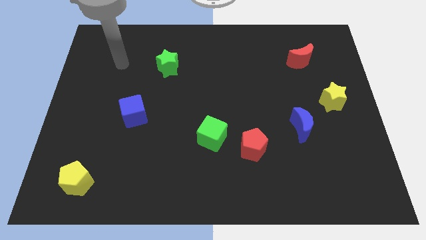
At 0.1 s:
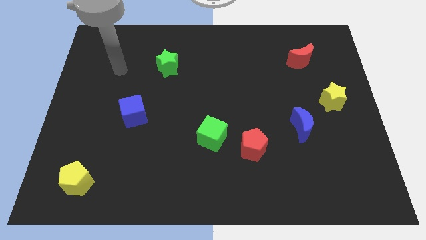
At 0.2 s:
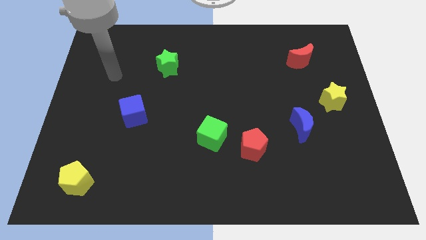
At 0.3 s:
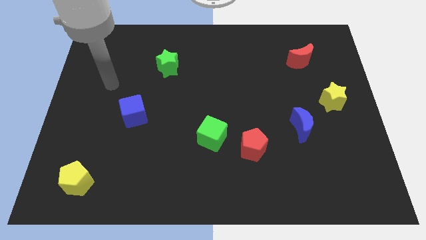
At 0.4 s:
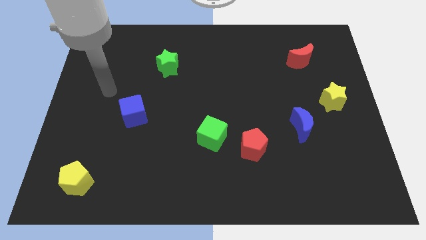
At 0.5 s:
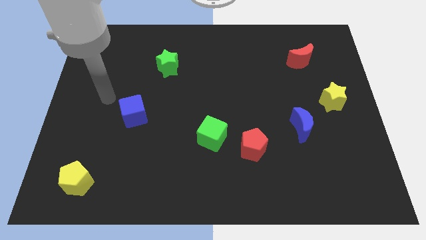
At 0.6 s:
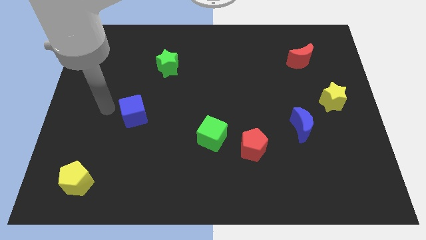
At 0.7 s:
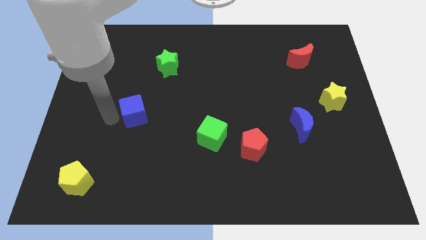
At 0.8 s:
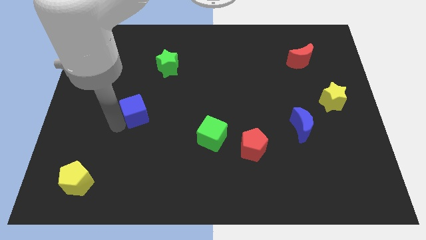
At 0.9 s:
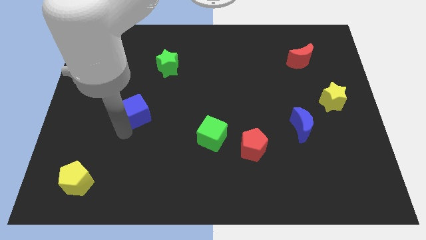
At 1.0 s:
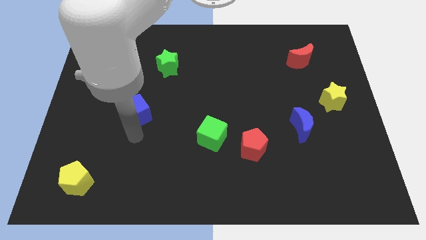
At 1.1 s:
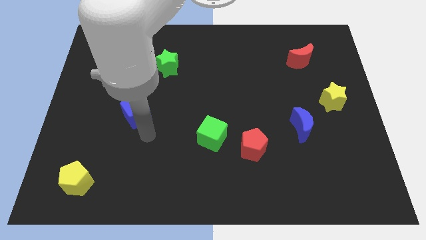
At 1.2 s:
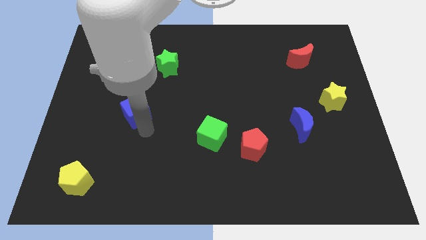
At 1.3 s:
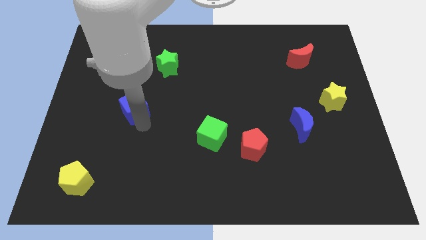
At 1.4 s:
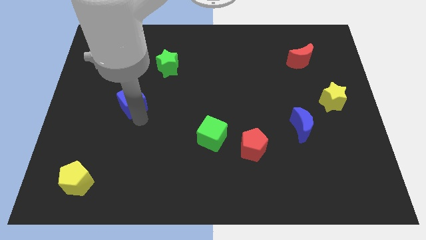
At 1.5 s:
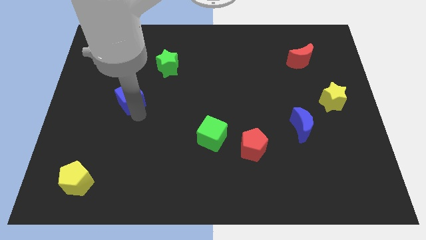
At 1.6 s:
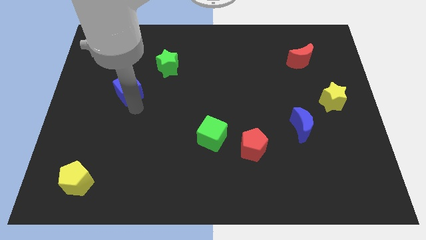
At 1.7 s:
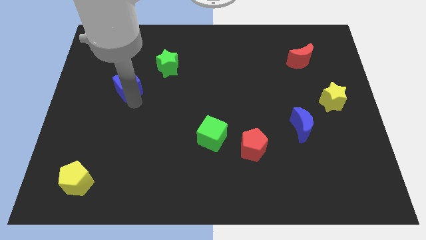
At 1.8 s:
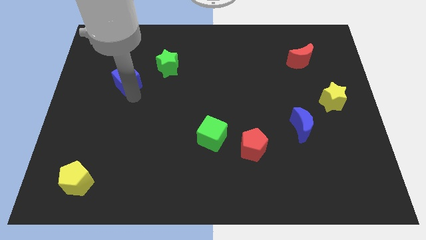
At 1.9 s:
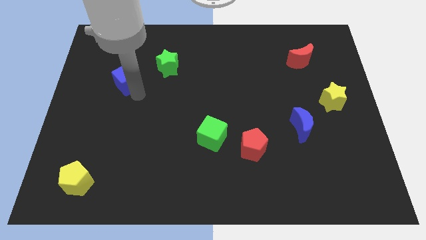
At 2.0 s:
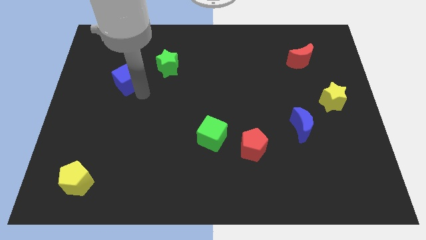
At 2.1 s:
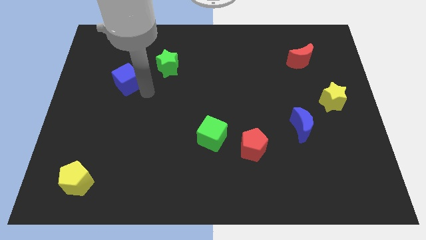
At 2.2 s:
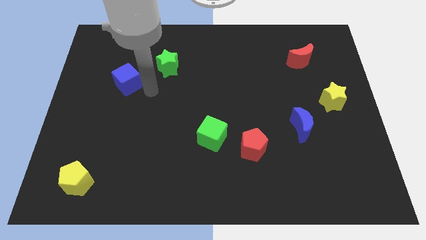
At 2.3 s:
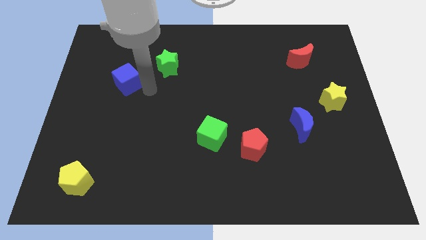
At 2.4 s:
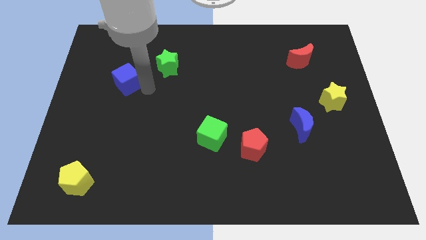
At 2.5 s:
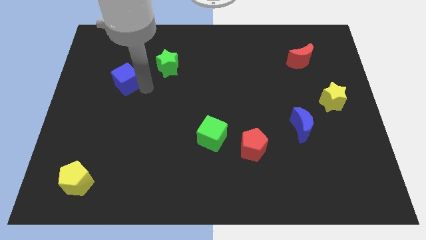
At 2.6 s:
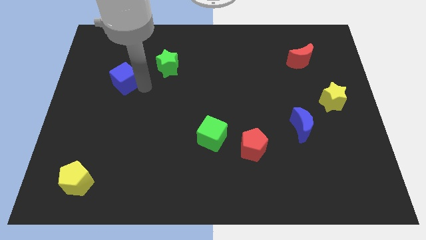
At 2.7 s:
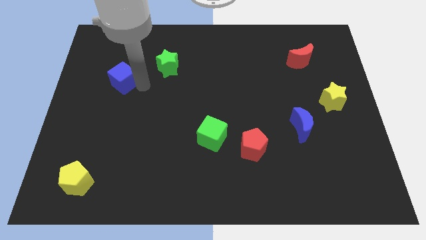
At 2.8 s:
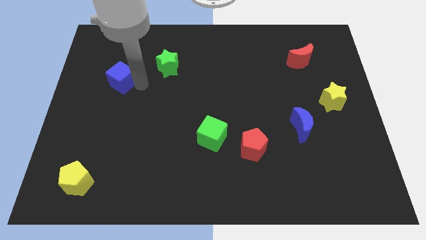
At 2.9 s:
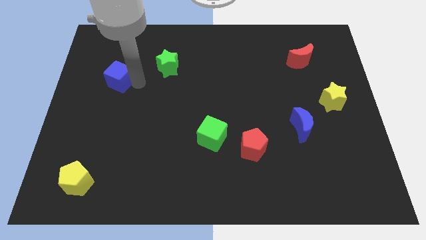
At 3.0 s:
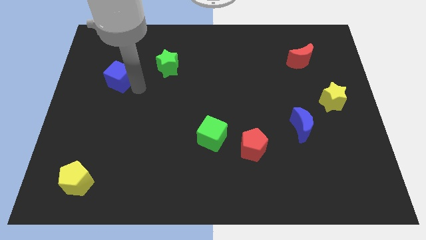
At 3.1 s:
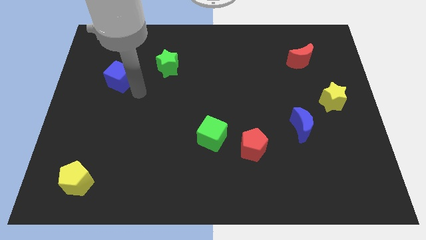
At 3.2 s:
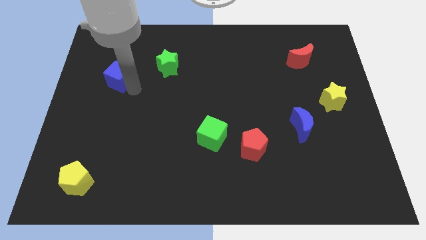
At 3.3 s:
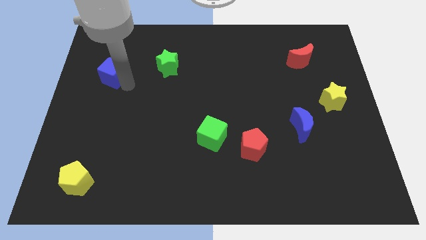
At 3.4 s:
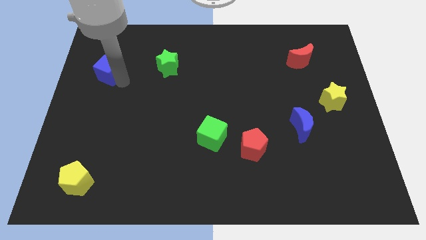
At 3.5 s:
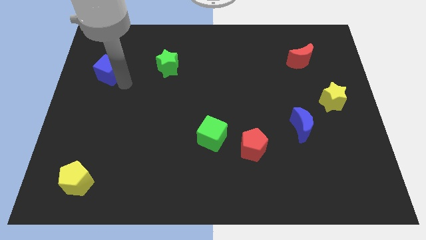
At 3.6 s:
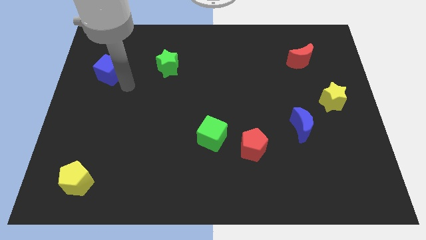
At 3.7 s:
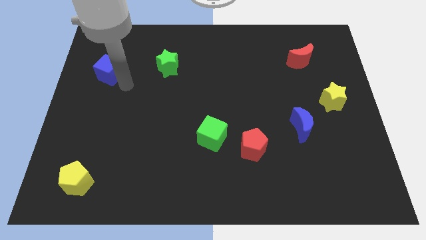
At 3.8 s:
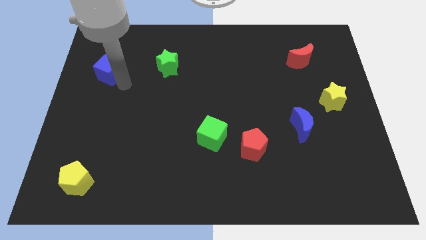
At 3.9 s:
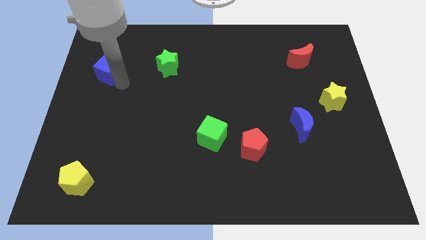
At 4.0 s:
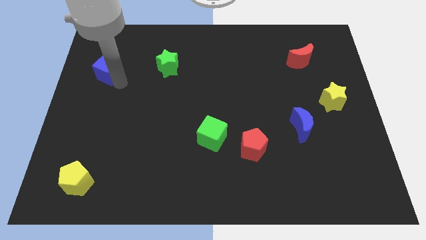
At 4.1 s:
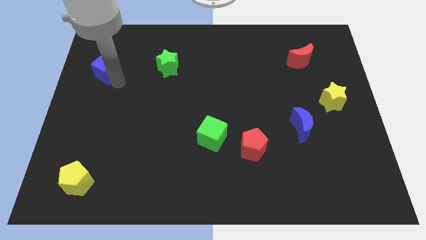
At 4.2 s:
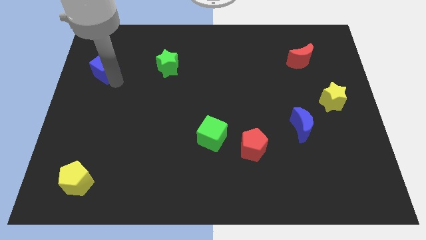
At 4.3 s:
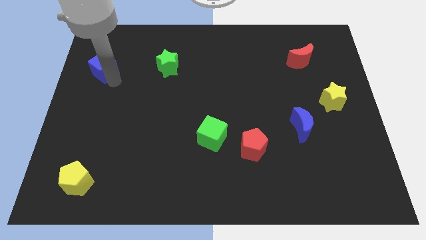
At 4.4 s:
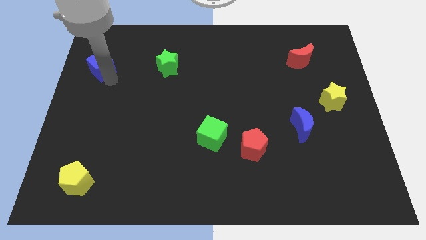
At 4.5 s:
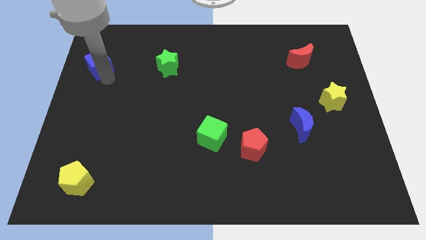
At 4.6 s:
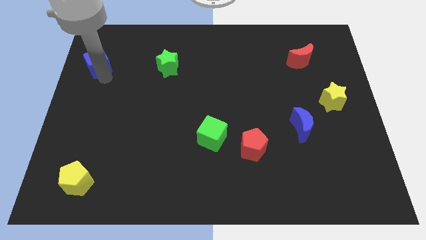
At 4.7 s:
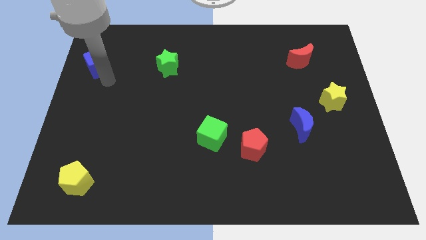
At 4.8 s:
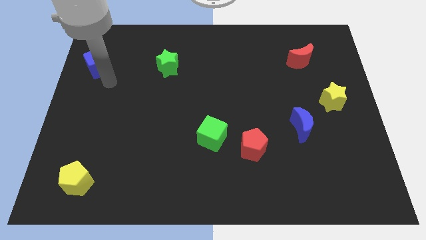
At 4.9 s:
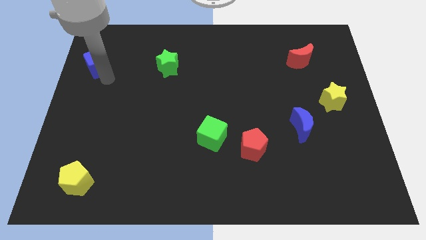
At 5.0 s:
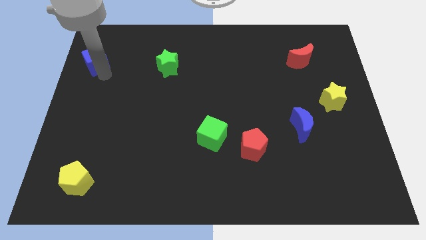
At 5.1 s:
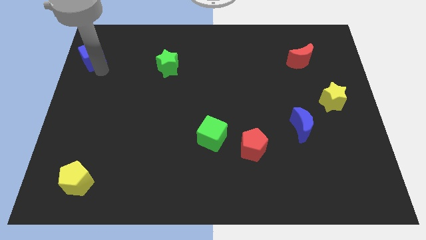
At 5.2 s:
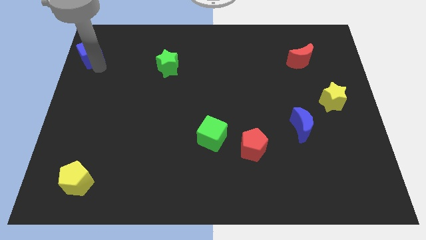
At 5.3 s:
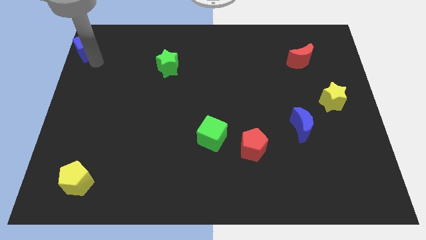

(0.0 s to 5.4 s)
push the blue cube to the top left of the board

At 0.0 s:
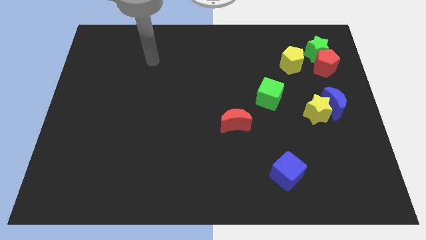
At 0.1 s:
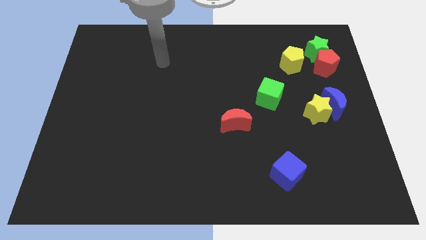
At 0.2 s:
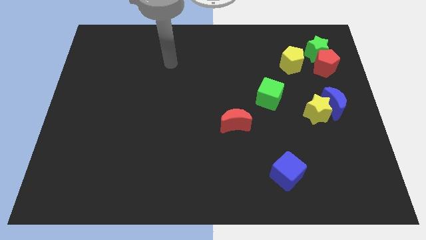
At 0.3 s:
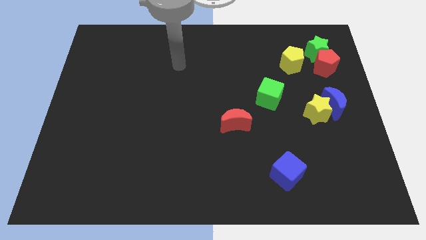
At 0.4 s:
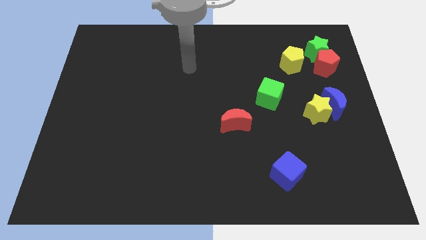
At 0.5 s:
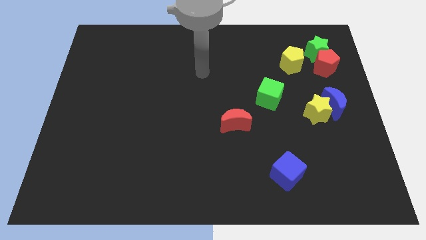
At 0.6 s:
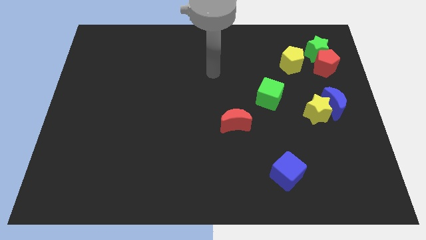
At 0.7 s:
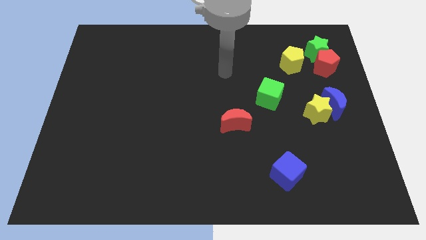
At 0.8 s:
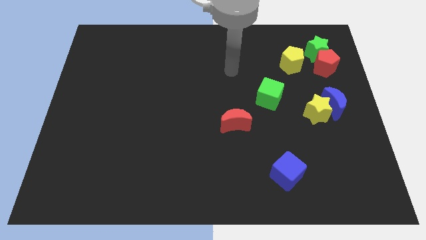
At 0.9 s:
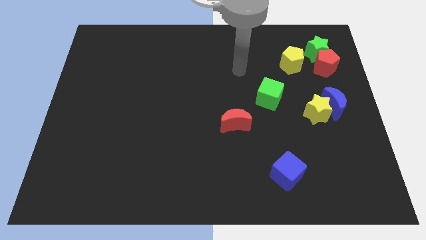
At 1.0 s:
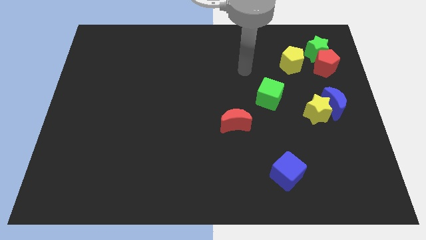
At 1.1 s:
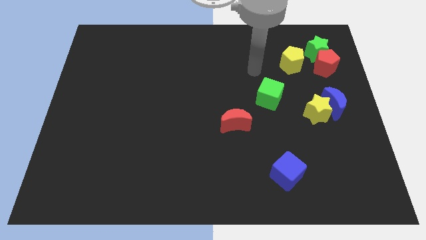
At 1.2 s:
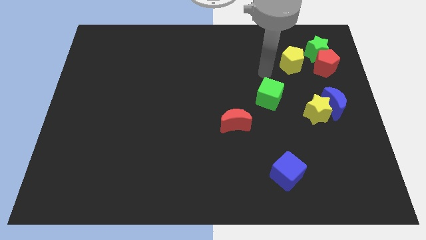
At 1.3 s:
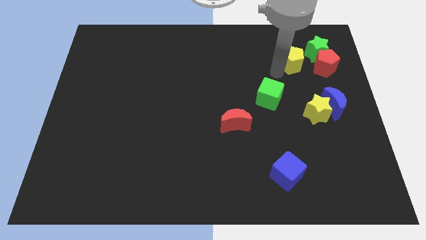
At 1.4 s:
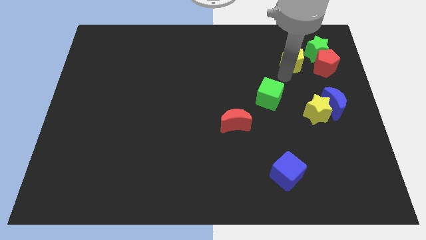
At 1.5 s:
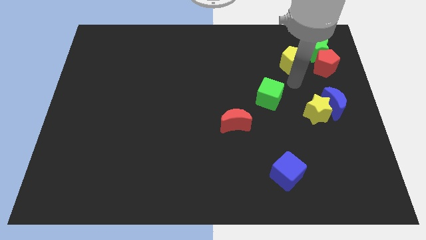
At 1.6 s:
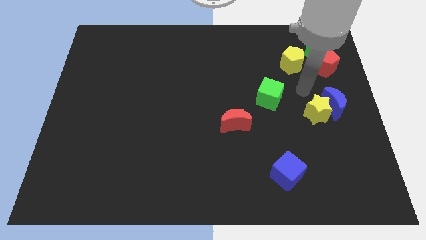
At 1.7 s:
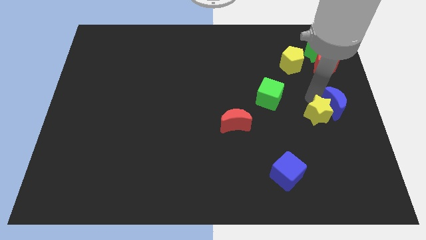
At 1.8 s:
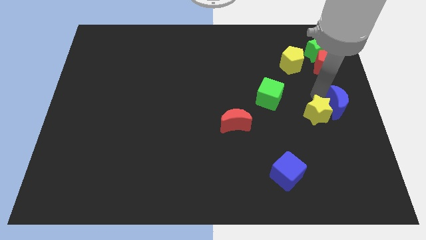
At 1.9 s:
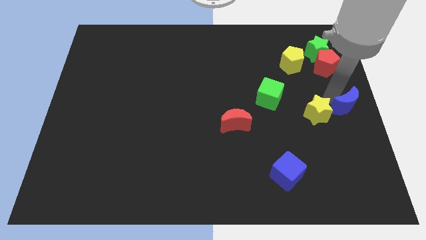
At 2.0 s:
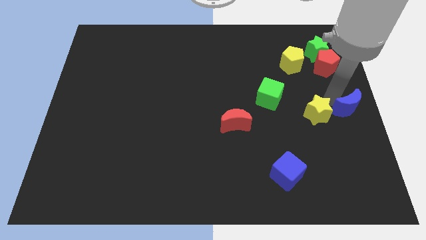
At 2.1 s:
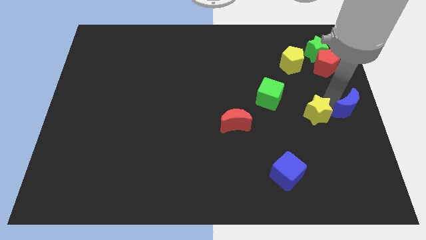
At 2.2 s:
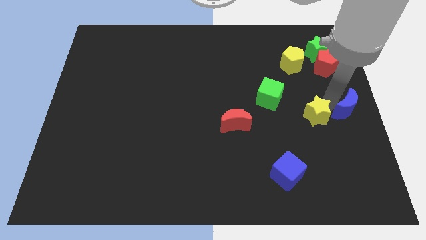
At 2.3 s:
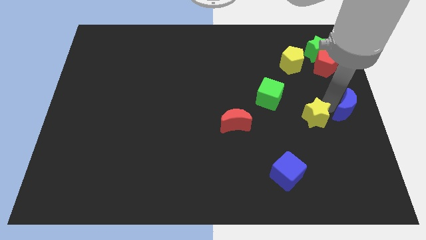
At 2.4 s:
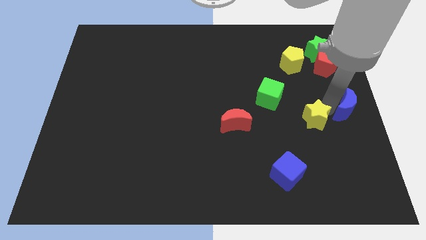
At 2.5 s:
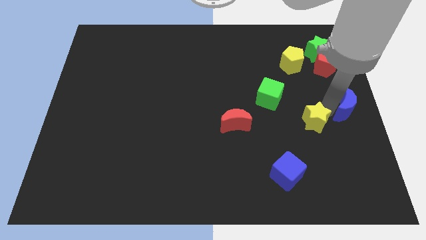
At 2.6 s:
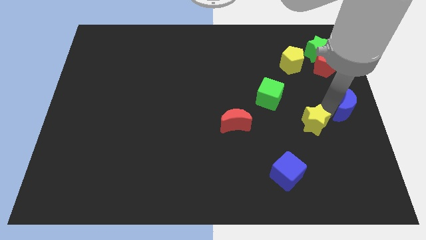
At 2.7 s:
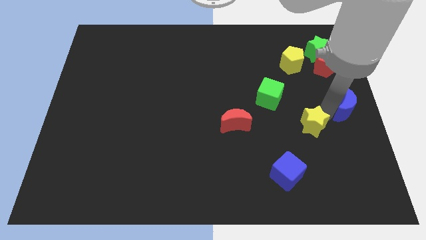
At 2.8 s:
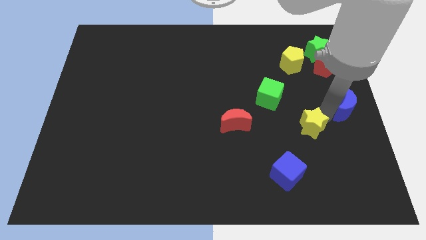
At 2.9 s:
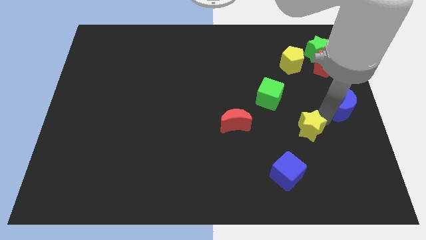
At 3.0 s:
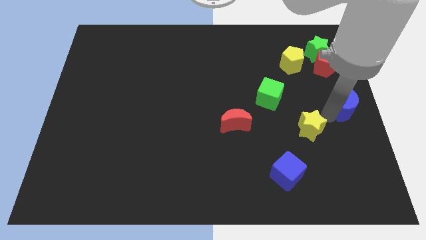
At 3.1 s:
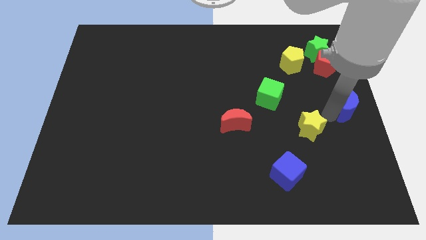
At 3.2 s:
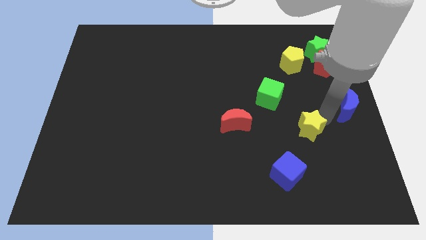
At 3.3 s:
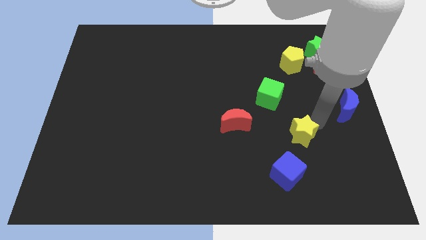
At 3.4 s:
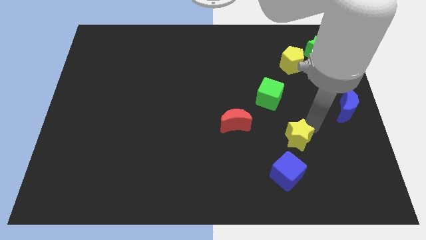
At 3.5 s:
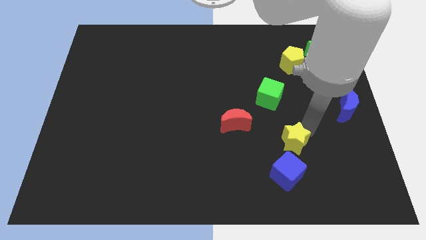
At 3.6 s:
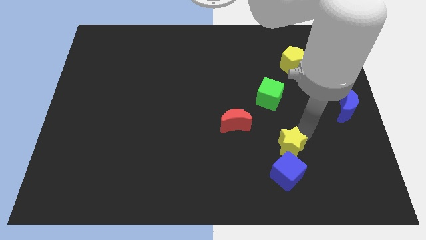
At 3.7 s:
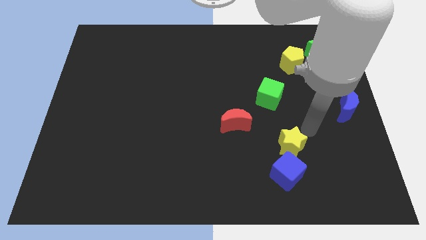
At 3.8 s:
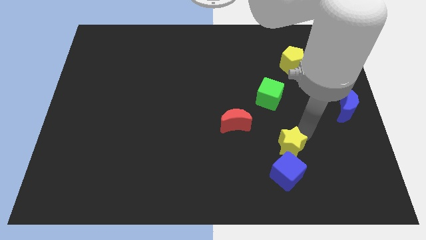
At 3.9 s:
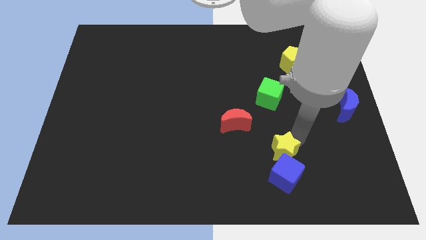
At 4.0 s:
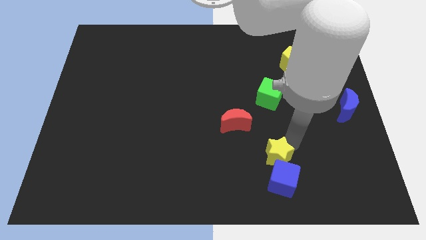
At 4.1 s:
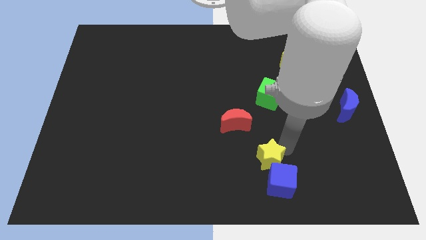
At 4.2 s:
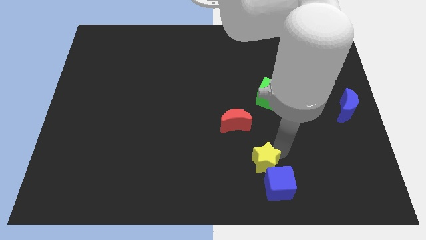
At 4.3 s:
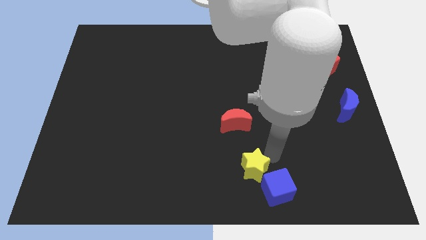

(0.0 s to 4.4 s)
put the yellow star to the bottom side
